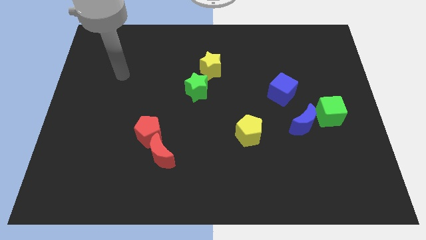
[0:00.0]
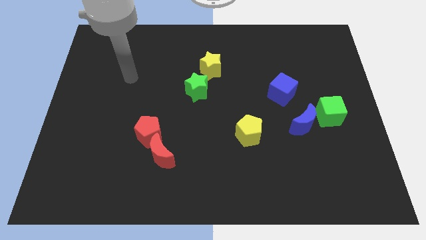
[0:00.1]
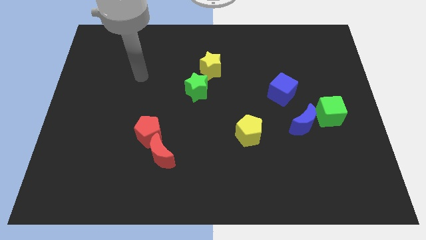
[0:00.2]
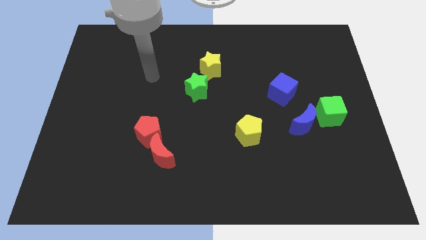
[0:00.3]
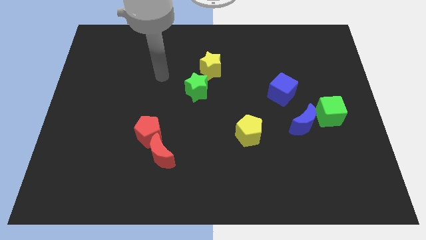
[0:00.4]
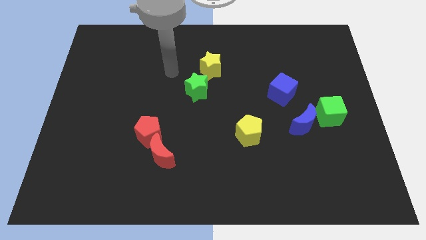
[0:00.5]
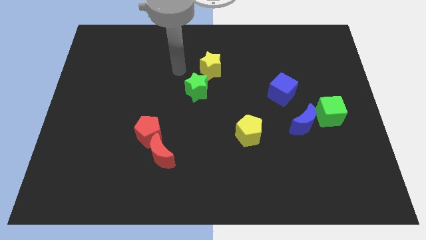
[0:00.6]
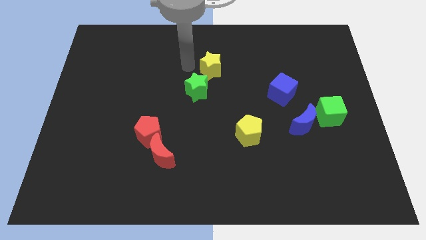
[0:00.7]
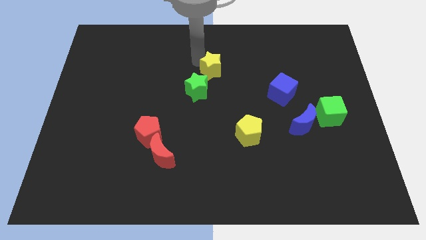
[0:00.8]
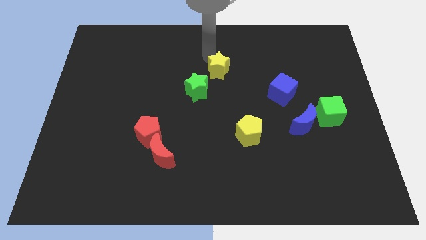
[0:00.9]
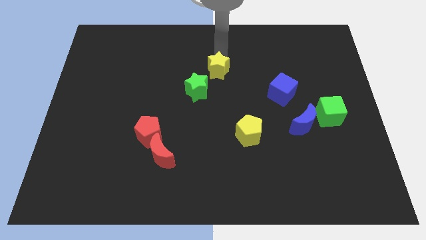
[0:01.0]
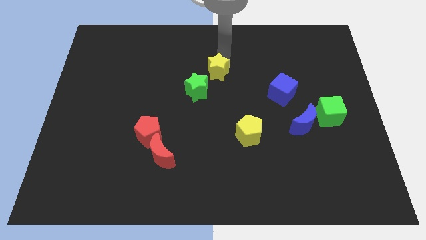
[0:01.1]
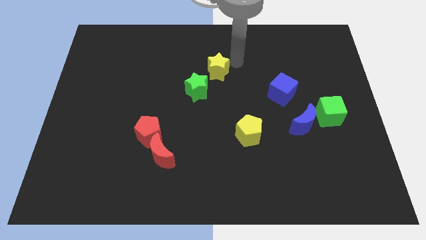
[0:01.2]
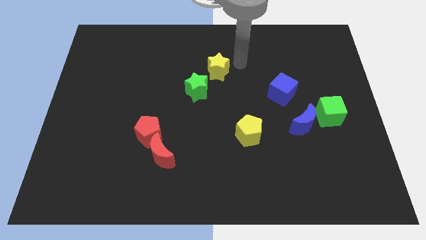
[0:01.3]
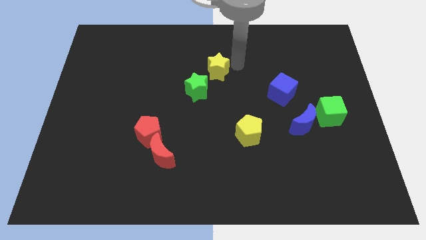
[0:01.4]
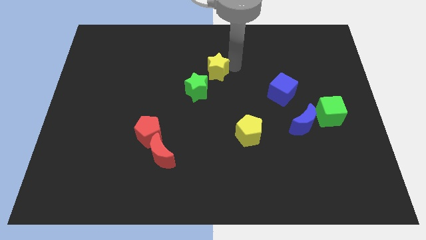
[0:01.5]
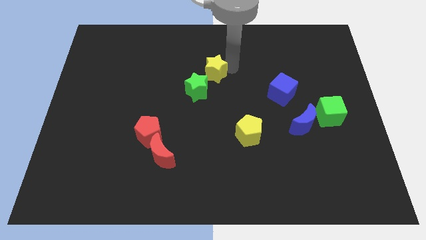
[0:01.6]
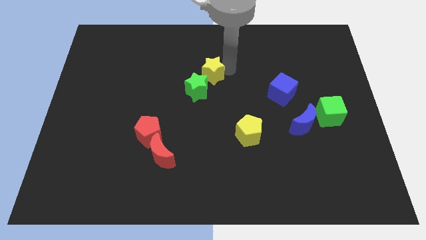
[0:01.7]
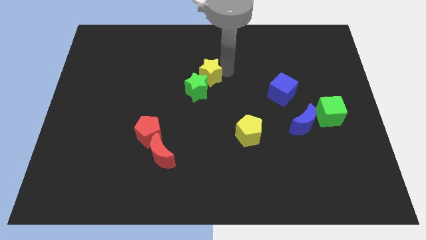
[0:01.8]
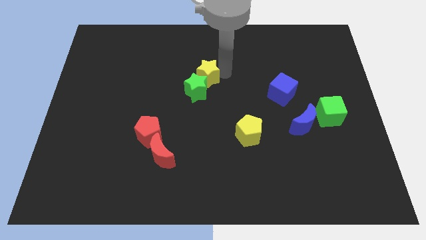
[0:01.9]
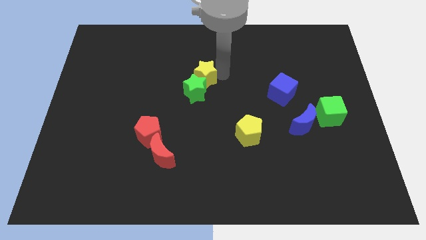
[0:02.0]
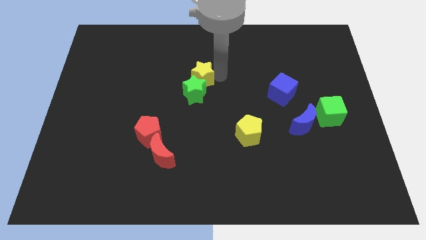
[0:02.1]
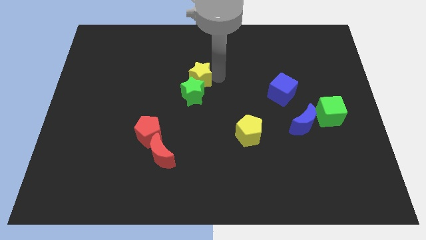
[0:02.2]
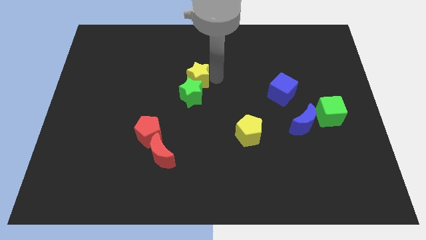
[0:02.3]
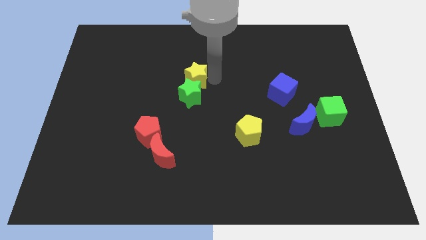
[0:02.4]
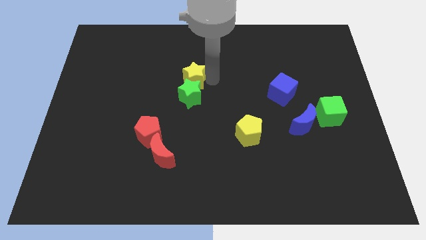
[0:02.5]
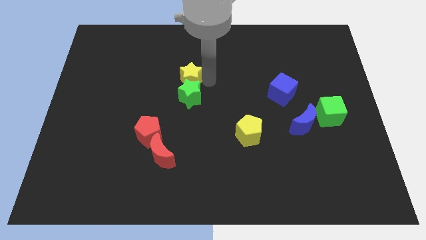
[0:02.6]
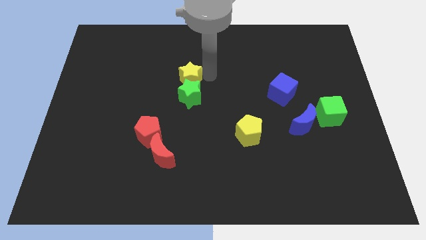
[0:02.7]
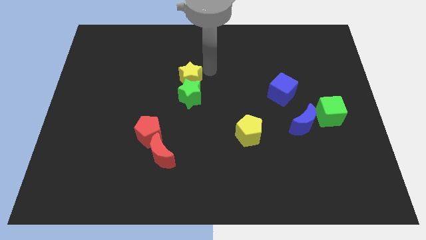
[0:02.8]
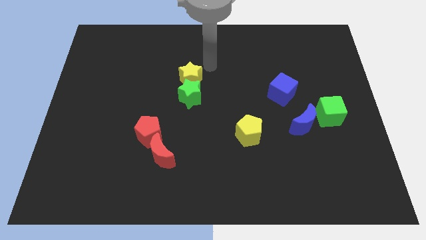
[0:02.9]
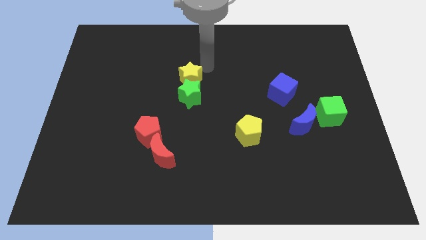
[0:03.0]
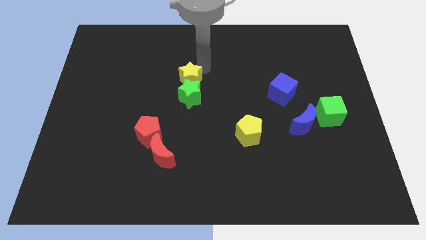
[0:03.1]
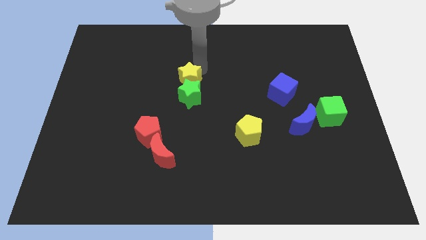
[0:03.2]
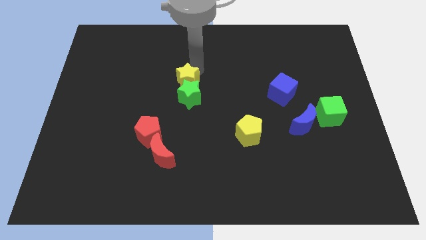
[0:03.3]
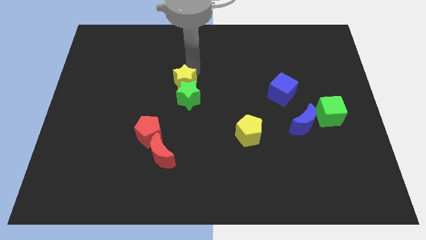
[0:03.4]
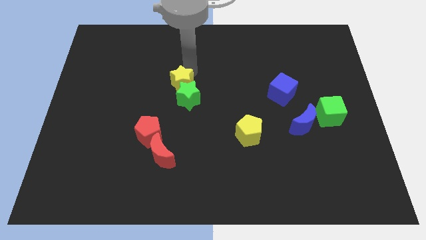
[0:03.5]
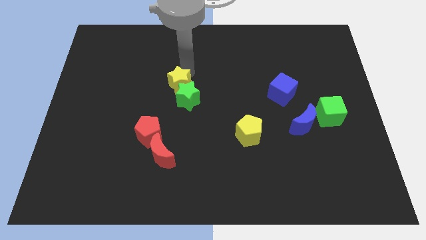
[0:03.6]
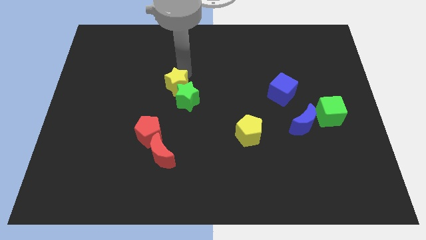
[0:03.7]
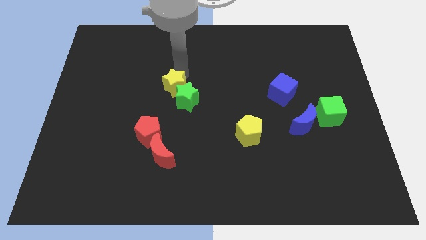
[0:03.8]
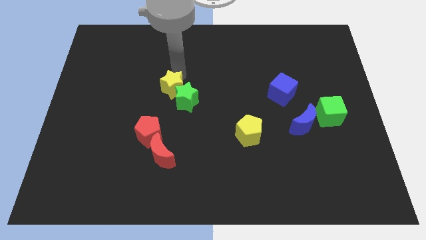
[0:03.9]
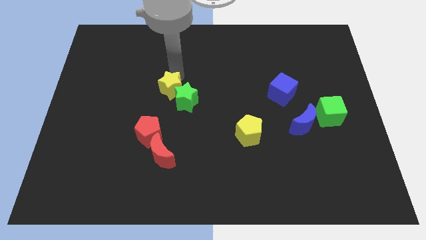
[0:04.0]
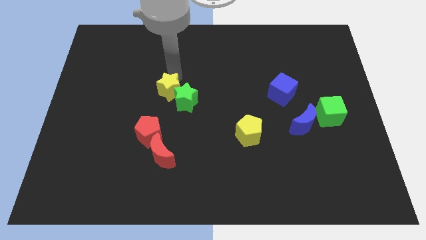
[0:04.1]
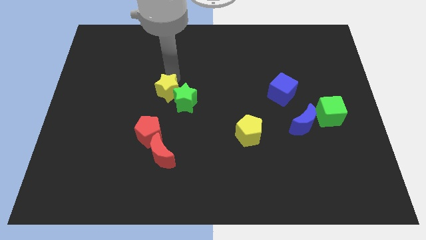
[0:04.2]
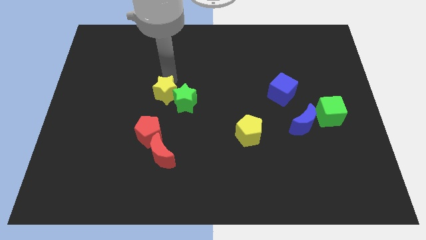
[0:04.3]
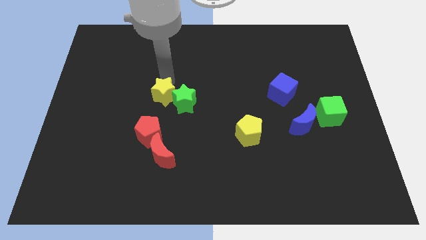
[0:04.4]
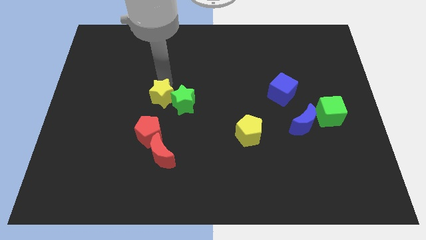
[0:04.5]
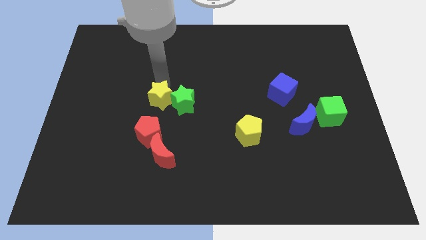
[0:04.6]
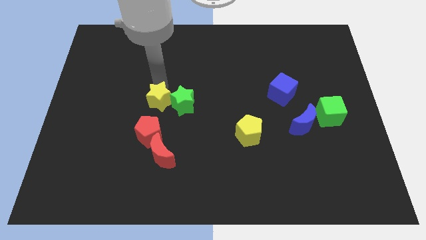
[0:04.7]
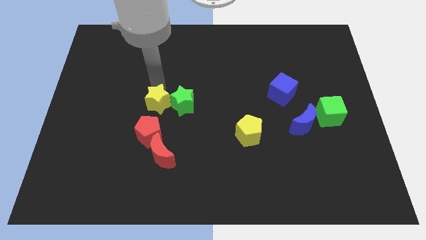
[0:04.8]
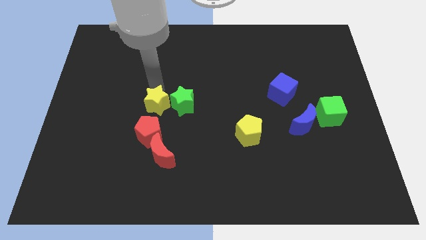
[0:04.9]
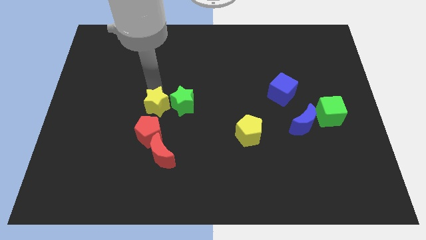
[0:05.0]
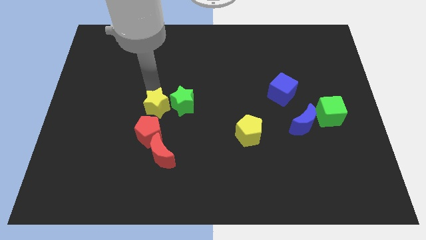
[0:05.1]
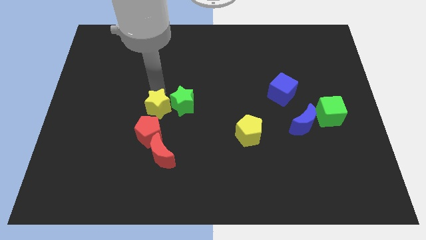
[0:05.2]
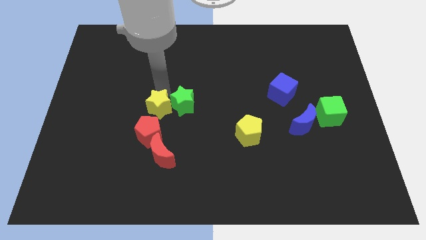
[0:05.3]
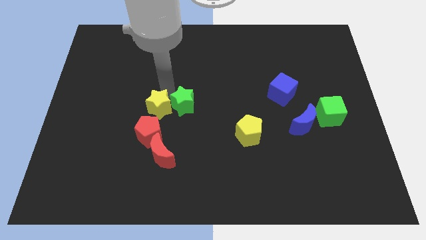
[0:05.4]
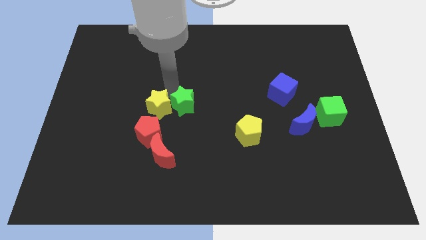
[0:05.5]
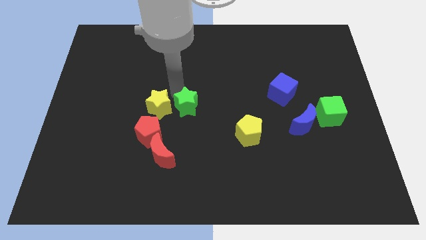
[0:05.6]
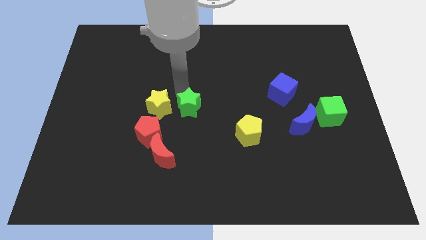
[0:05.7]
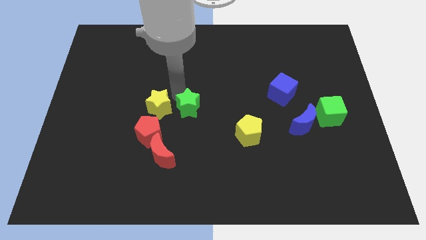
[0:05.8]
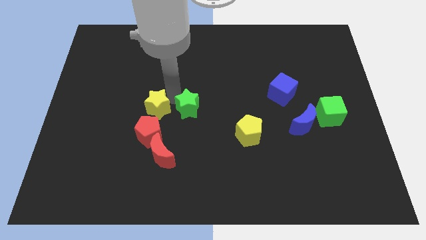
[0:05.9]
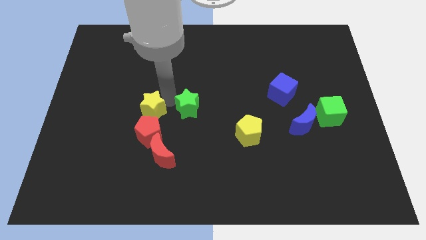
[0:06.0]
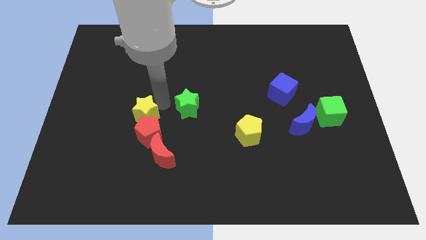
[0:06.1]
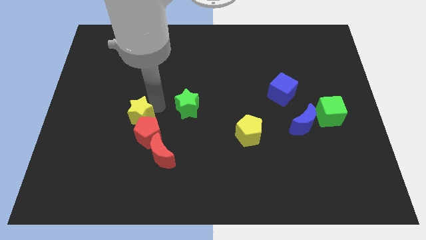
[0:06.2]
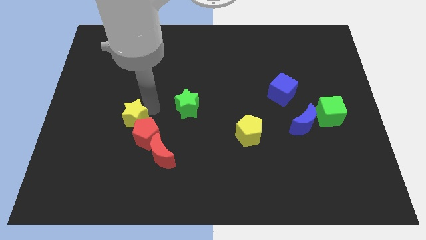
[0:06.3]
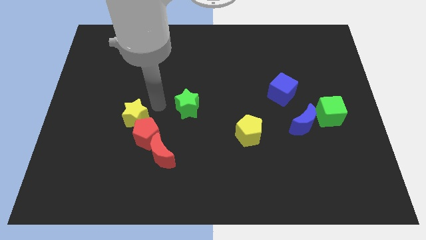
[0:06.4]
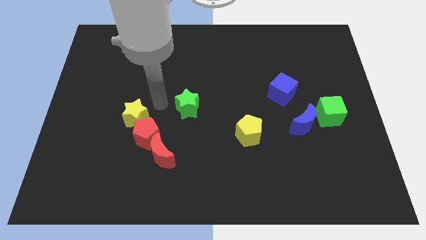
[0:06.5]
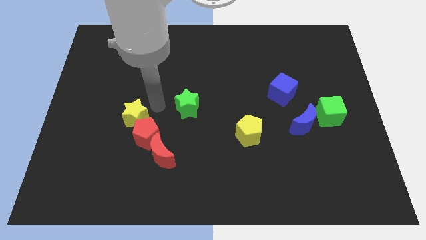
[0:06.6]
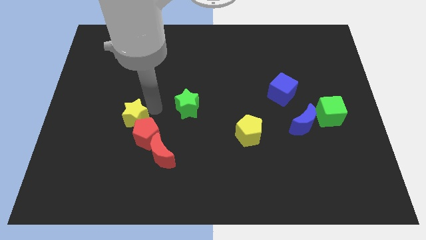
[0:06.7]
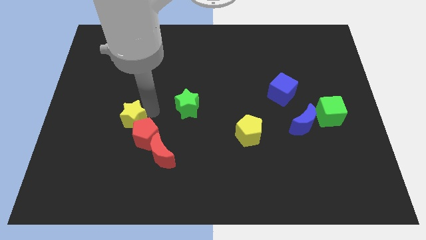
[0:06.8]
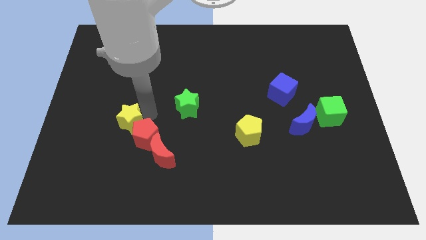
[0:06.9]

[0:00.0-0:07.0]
put the yellow star just left of the red pentagon

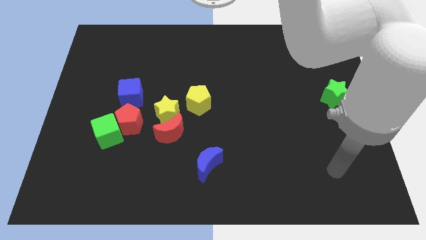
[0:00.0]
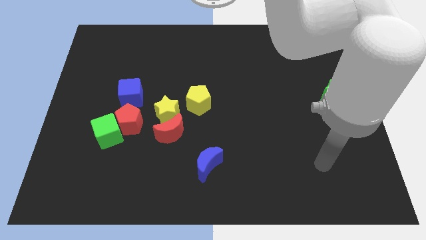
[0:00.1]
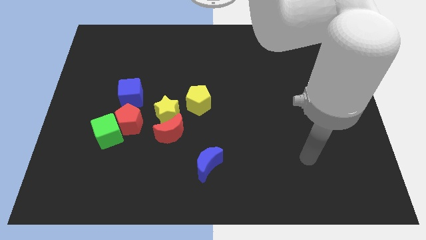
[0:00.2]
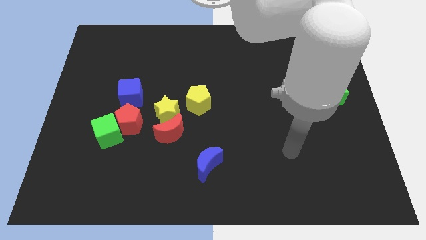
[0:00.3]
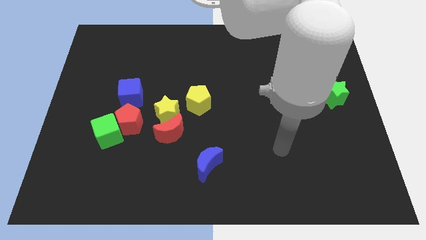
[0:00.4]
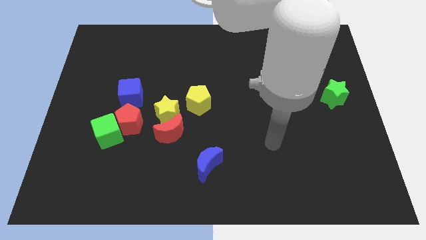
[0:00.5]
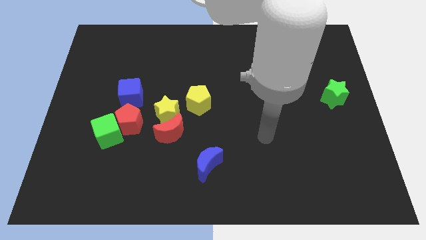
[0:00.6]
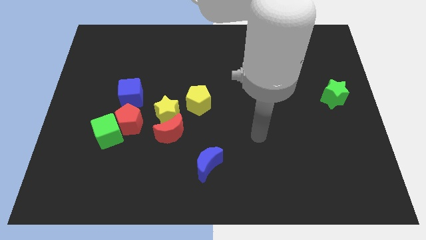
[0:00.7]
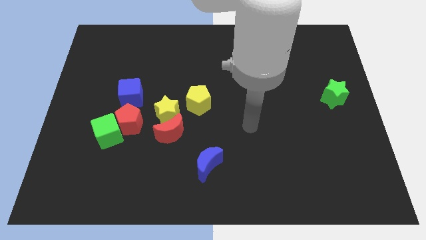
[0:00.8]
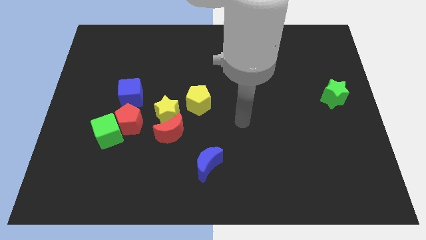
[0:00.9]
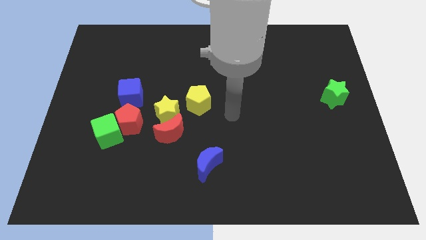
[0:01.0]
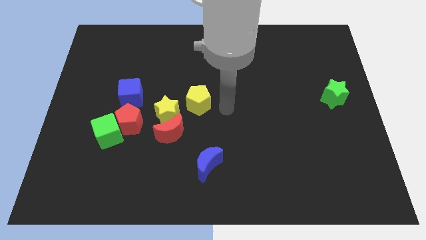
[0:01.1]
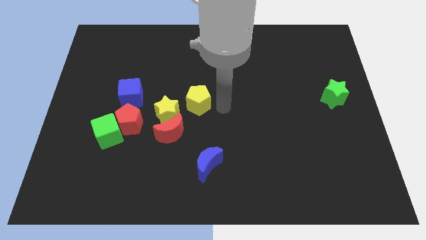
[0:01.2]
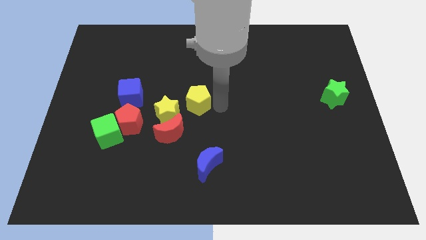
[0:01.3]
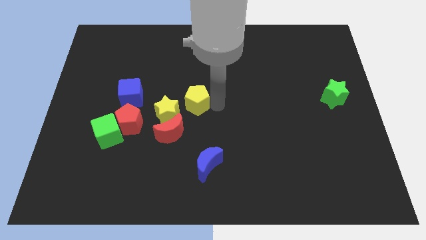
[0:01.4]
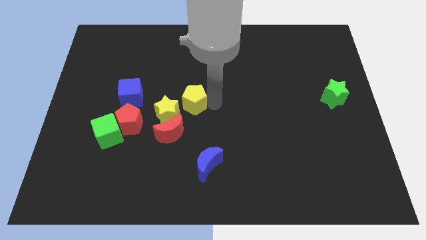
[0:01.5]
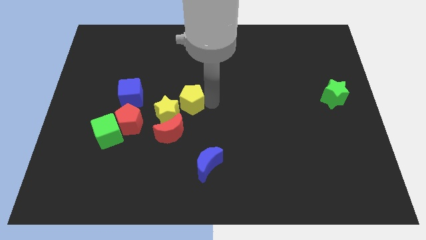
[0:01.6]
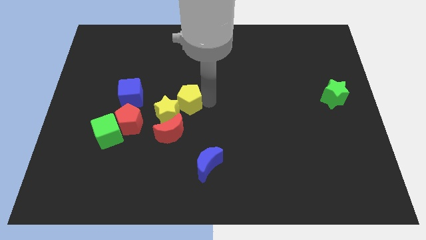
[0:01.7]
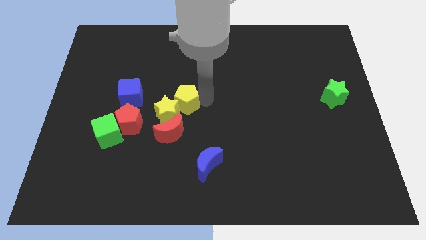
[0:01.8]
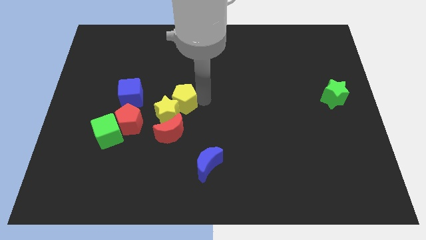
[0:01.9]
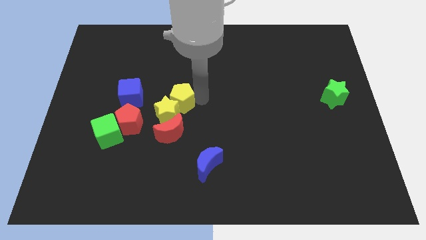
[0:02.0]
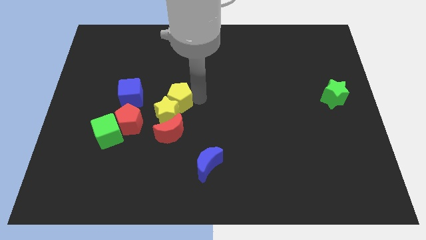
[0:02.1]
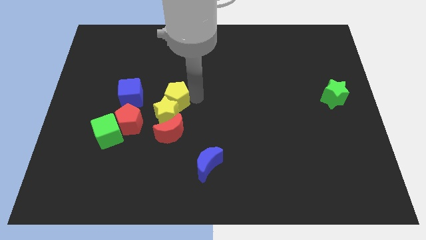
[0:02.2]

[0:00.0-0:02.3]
put the yellow pentagon to the top right of the red pentagon
